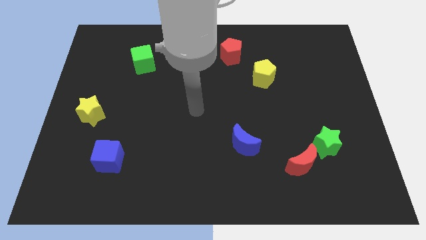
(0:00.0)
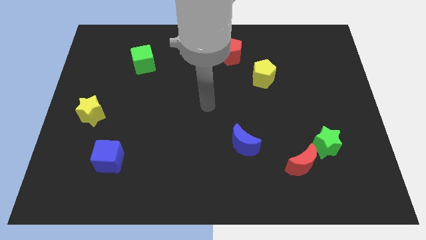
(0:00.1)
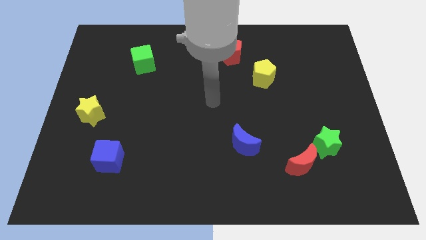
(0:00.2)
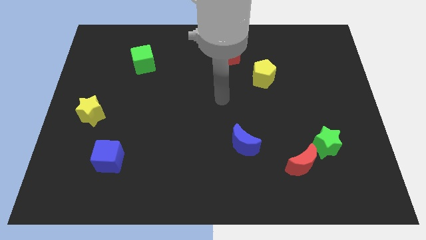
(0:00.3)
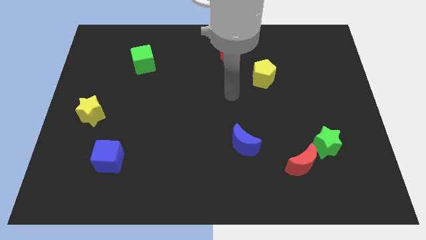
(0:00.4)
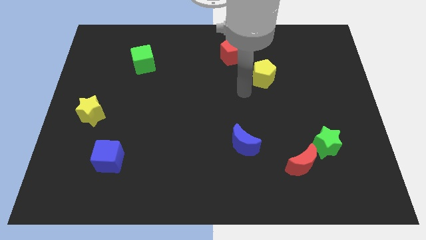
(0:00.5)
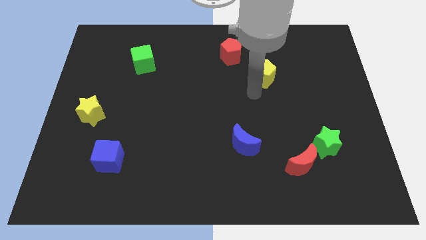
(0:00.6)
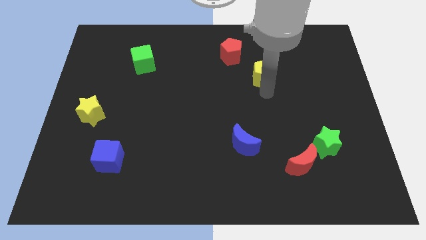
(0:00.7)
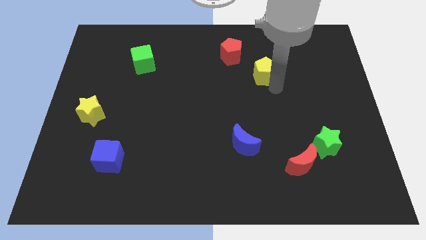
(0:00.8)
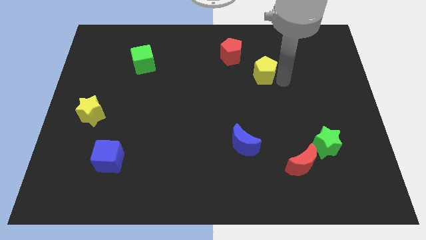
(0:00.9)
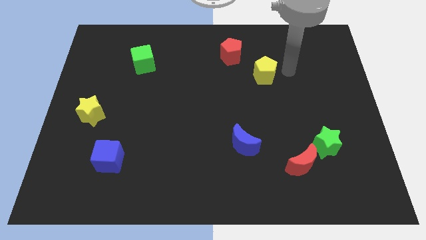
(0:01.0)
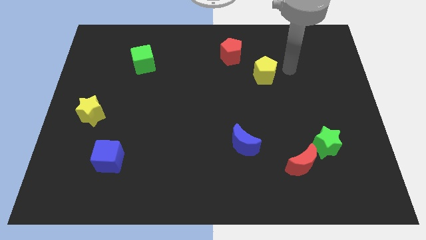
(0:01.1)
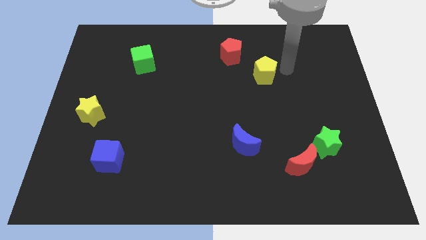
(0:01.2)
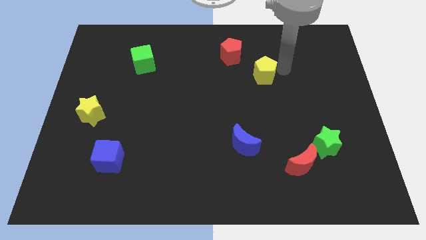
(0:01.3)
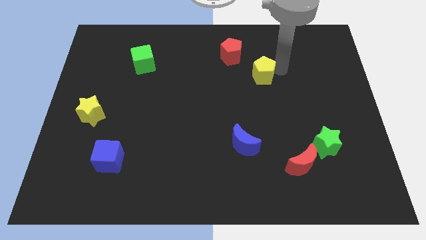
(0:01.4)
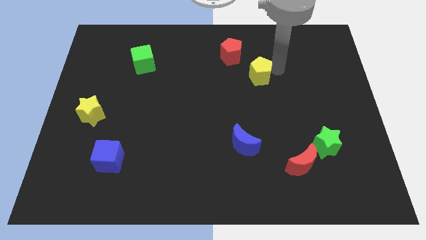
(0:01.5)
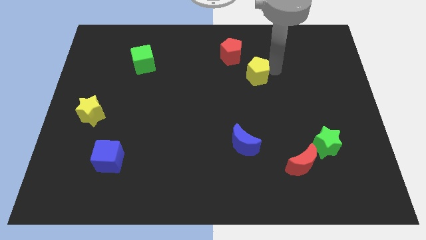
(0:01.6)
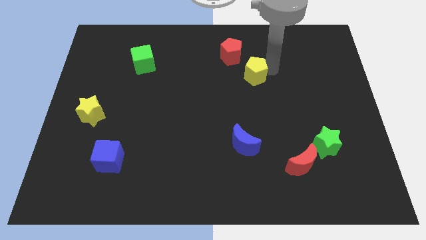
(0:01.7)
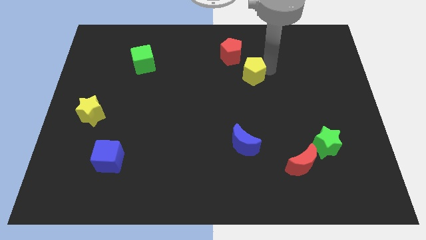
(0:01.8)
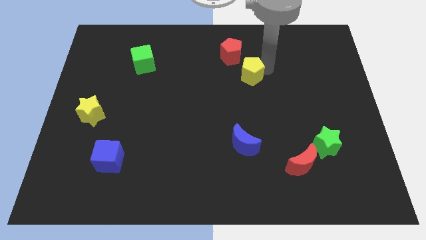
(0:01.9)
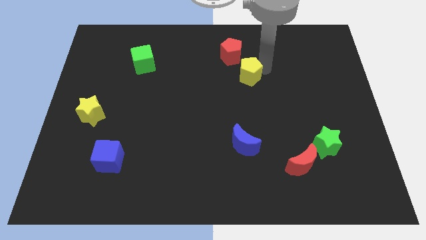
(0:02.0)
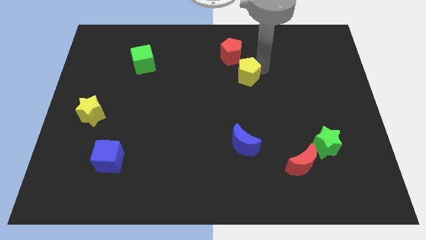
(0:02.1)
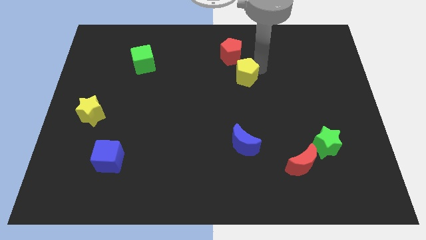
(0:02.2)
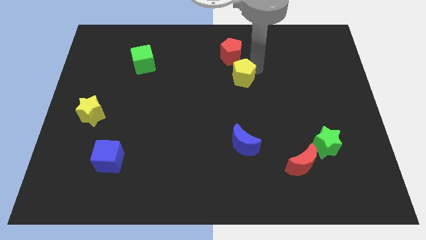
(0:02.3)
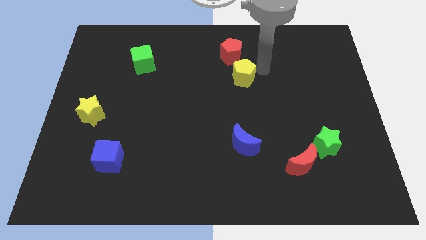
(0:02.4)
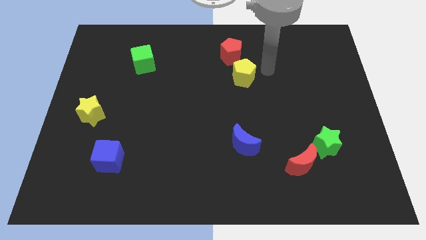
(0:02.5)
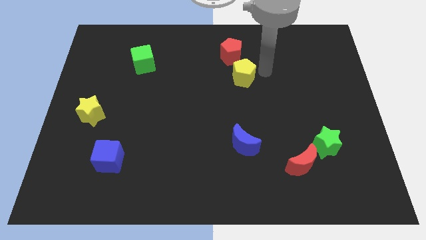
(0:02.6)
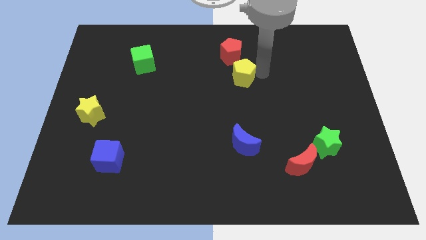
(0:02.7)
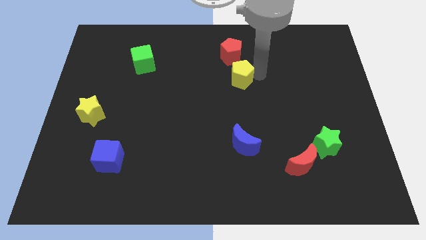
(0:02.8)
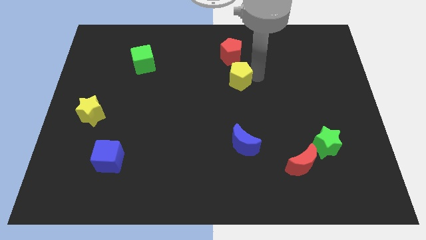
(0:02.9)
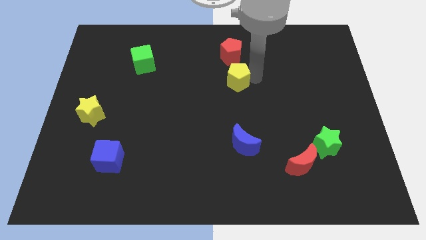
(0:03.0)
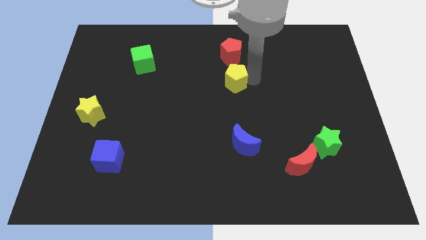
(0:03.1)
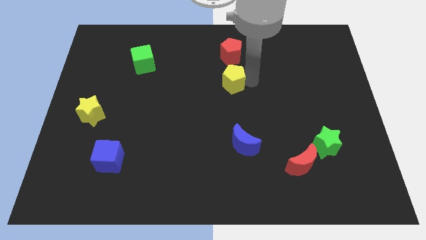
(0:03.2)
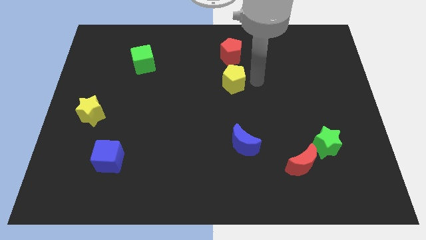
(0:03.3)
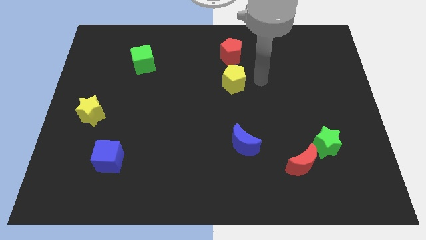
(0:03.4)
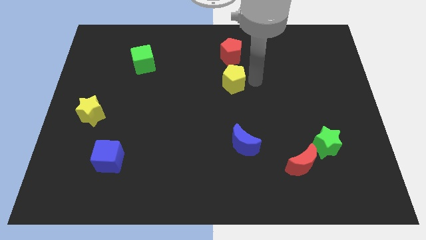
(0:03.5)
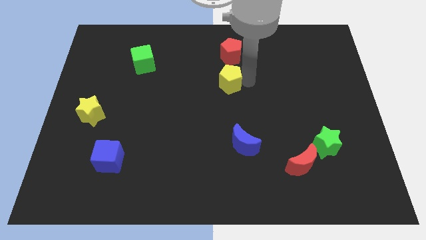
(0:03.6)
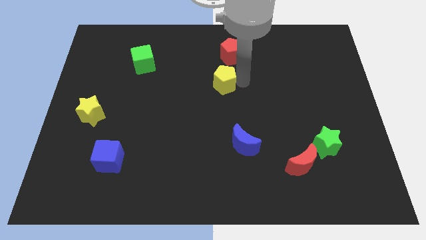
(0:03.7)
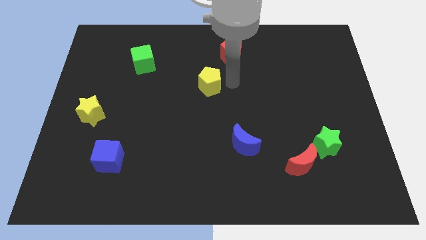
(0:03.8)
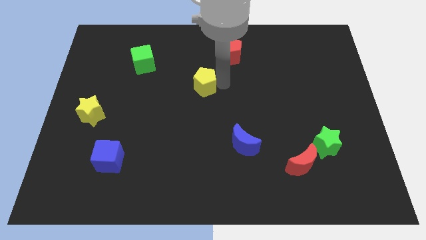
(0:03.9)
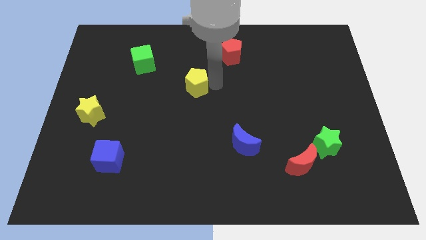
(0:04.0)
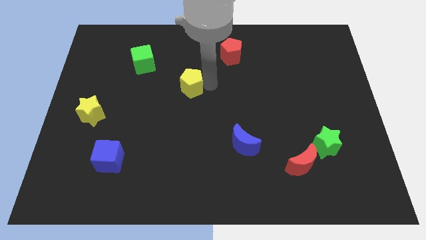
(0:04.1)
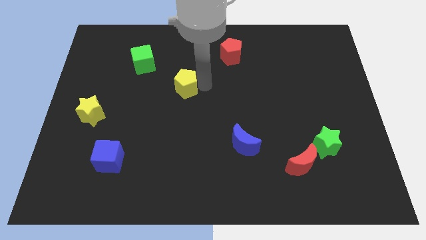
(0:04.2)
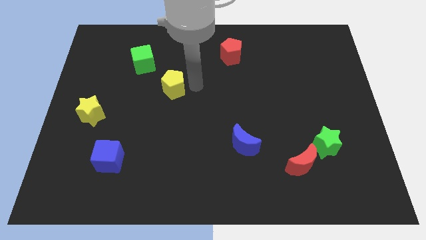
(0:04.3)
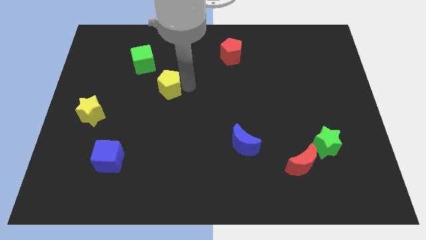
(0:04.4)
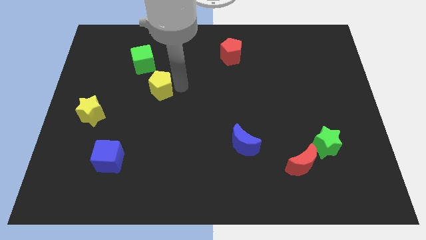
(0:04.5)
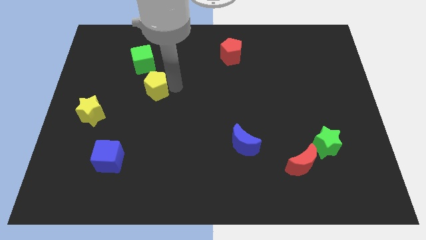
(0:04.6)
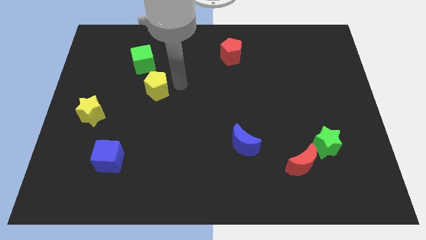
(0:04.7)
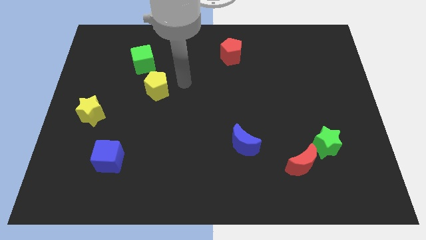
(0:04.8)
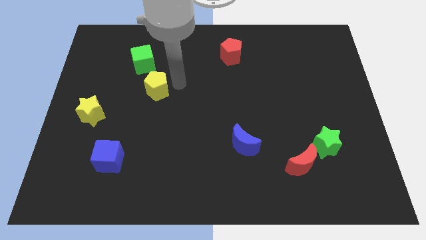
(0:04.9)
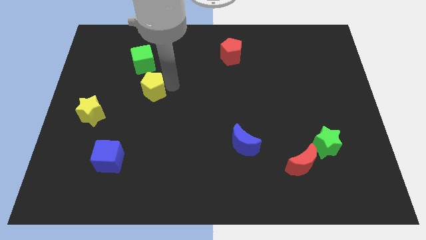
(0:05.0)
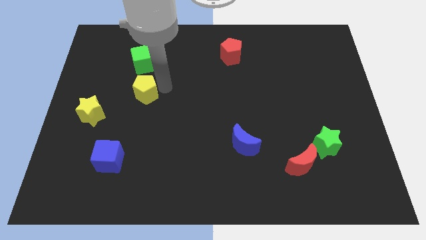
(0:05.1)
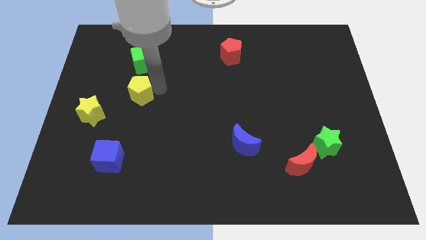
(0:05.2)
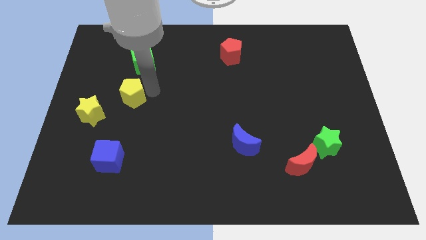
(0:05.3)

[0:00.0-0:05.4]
push the yellow pentagon diagonally up and to the right of the yellow star

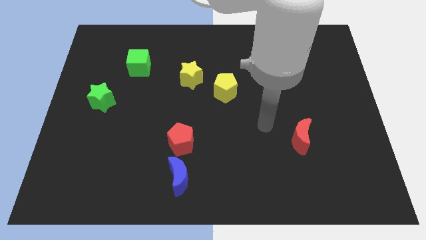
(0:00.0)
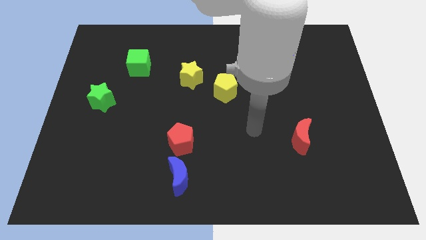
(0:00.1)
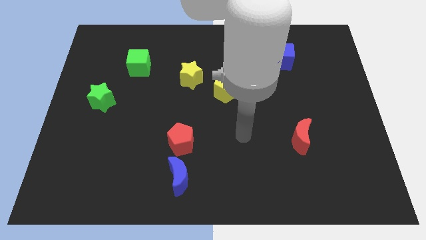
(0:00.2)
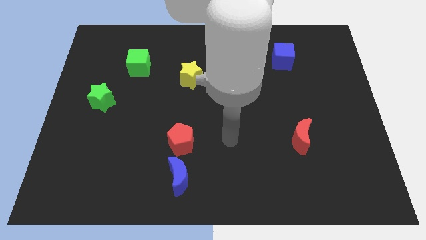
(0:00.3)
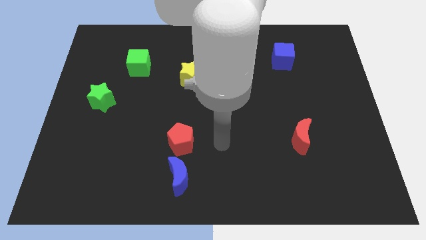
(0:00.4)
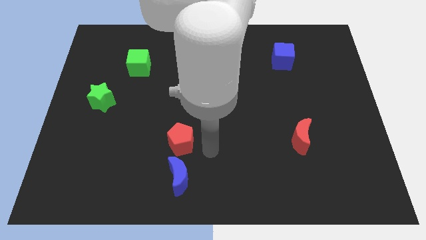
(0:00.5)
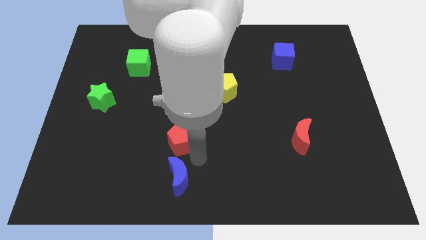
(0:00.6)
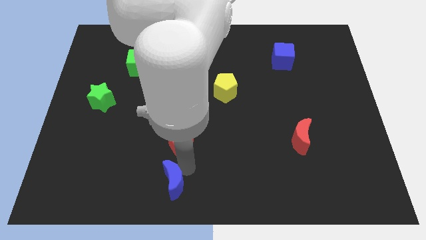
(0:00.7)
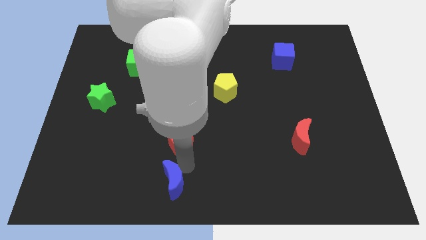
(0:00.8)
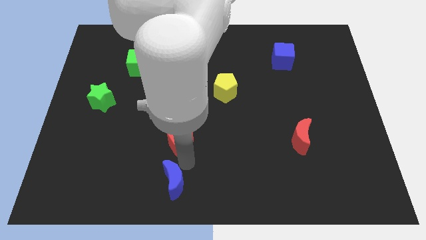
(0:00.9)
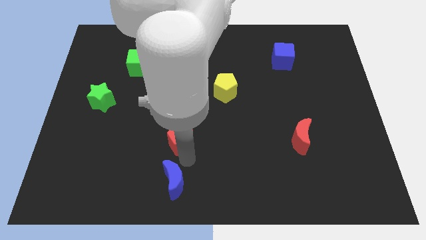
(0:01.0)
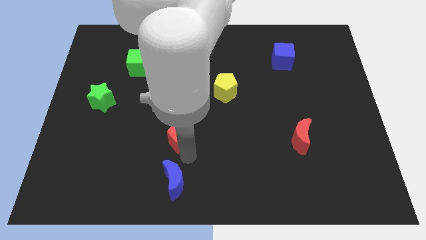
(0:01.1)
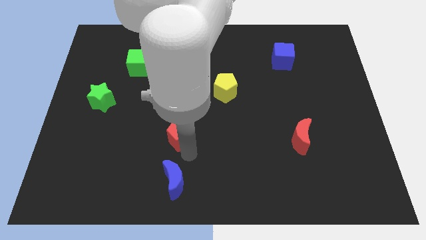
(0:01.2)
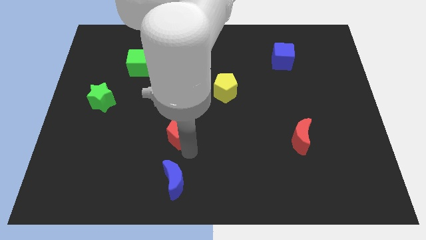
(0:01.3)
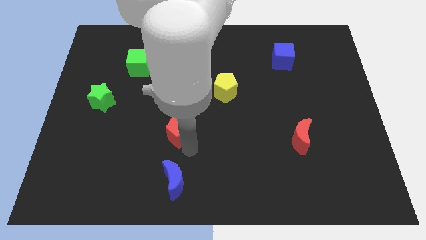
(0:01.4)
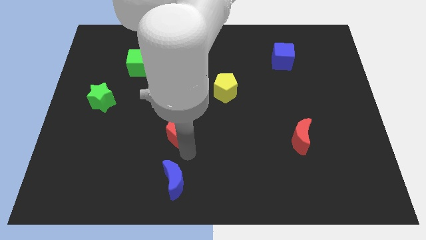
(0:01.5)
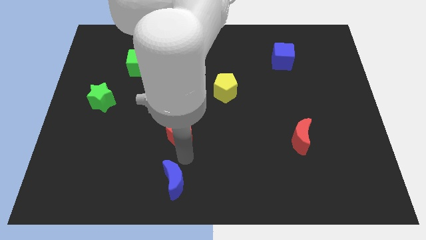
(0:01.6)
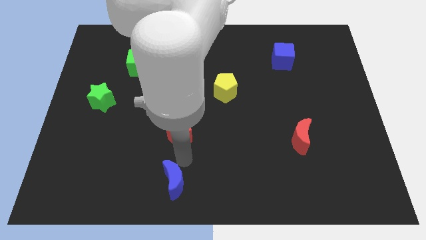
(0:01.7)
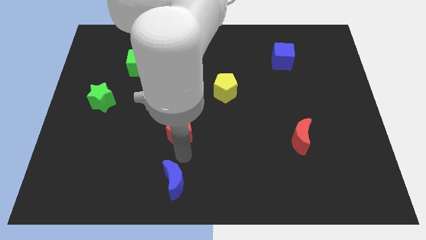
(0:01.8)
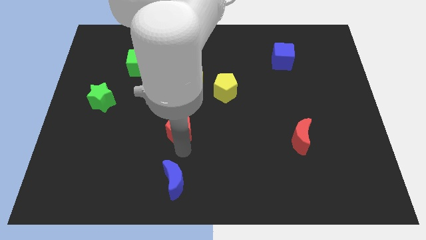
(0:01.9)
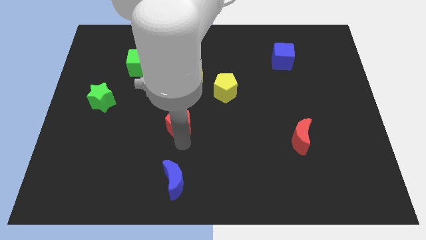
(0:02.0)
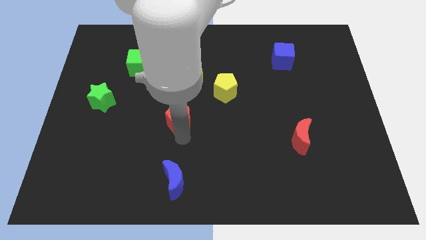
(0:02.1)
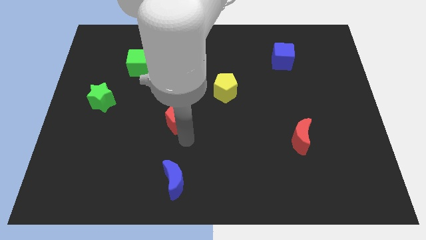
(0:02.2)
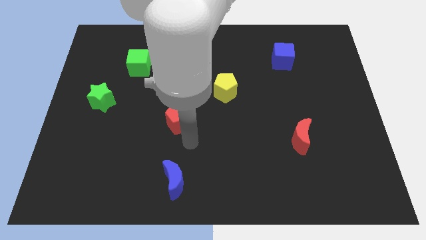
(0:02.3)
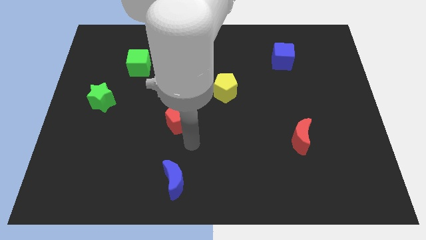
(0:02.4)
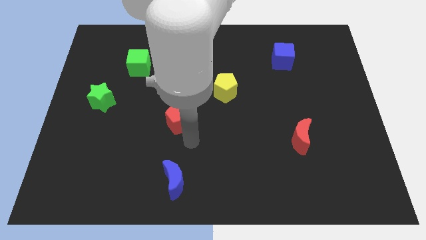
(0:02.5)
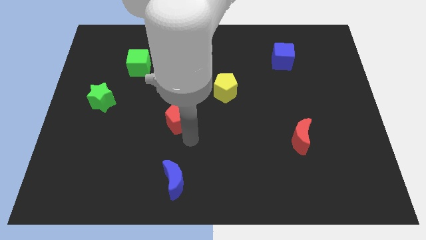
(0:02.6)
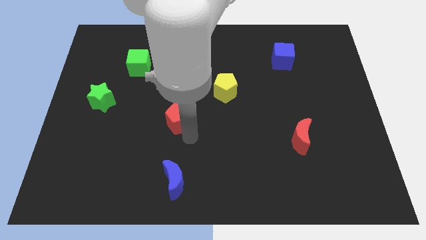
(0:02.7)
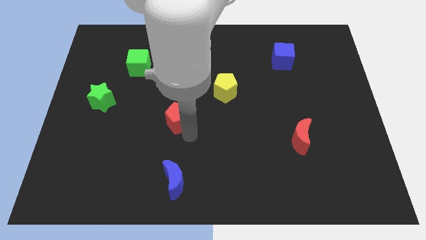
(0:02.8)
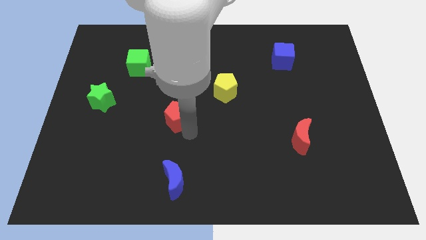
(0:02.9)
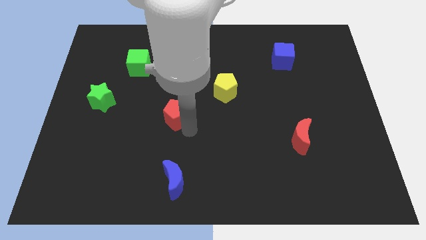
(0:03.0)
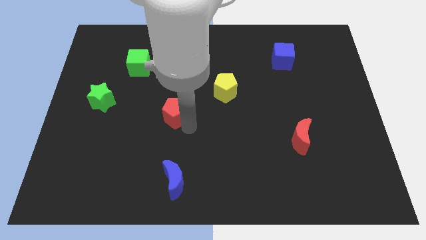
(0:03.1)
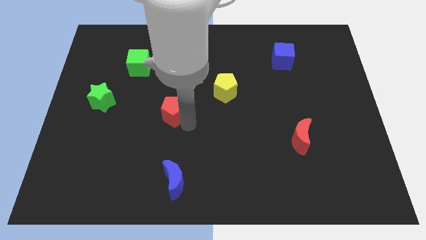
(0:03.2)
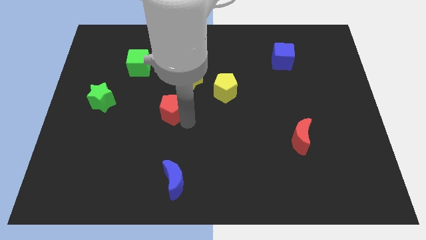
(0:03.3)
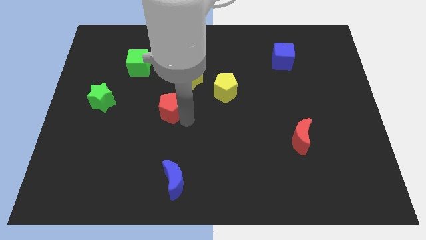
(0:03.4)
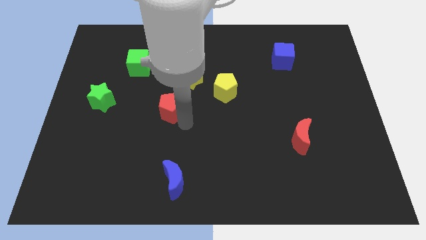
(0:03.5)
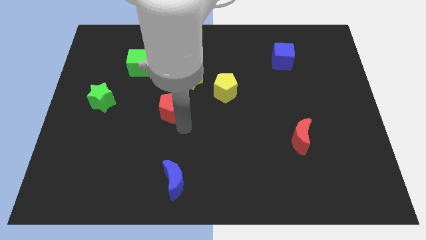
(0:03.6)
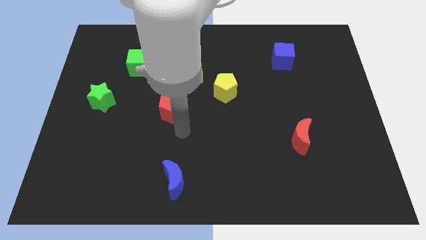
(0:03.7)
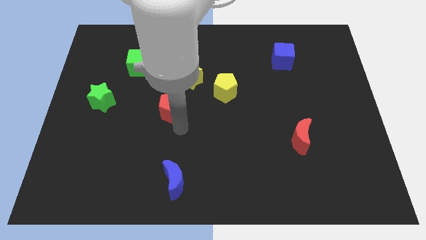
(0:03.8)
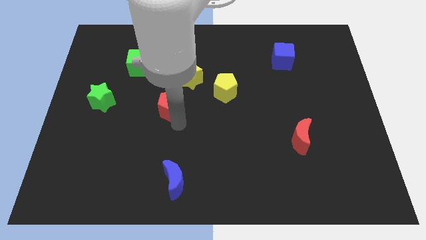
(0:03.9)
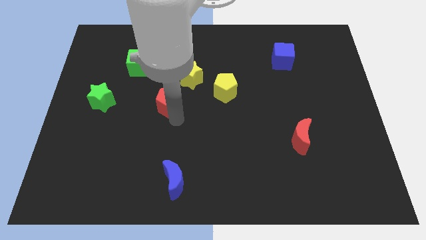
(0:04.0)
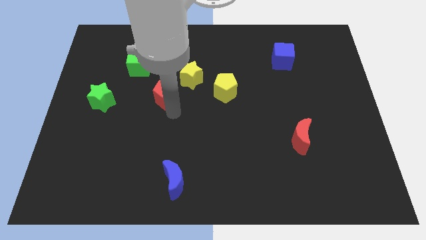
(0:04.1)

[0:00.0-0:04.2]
slide the red pentagon diagonally down and to the right of the green cube
